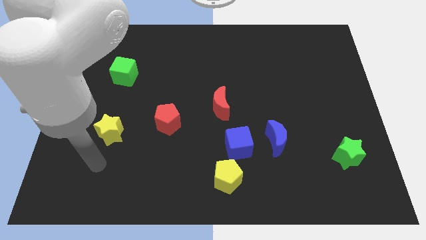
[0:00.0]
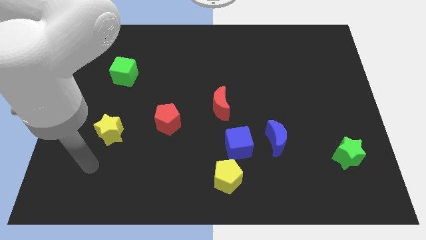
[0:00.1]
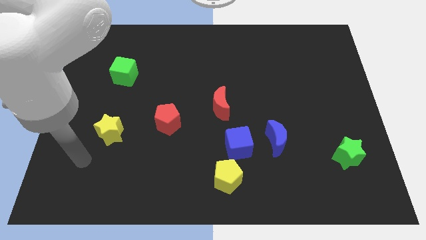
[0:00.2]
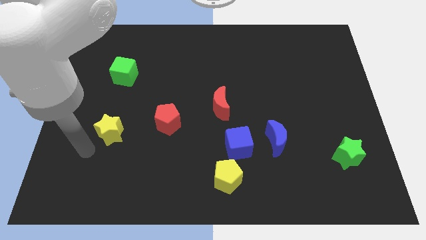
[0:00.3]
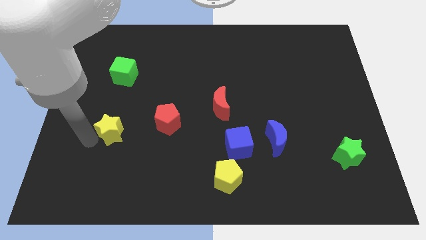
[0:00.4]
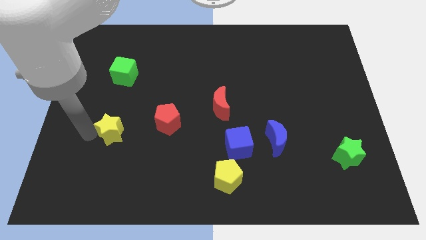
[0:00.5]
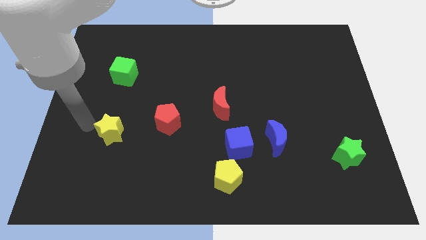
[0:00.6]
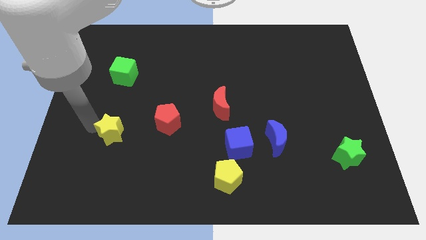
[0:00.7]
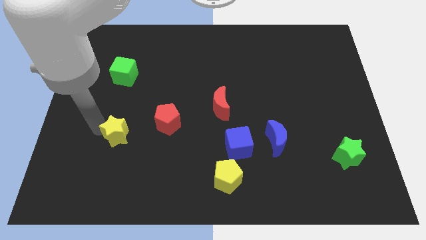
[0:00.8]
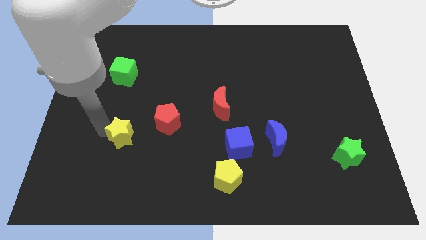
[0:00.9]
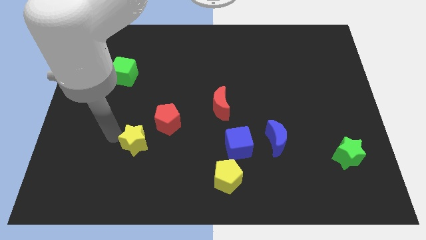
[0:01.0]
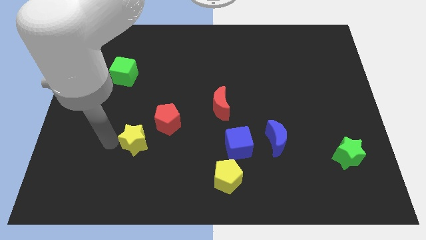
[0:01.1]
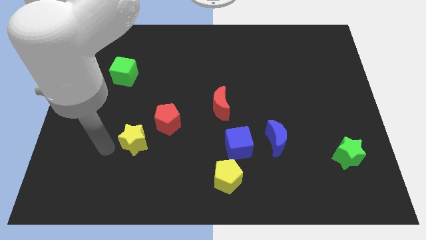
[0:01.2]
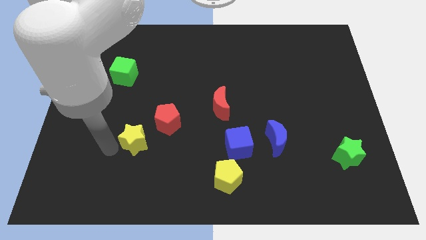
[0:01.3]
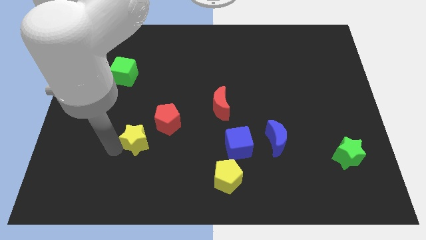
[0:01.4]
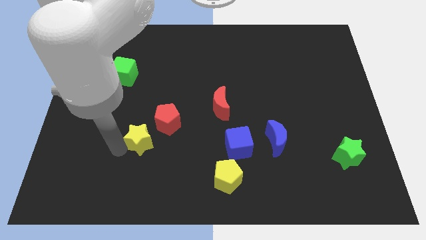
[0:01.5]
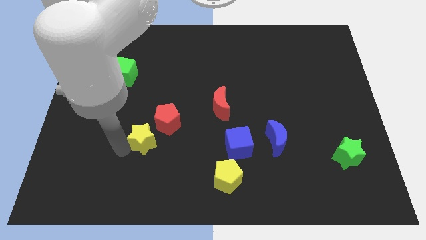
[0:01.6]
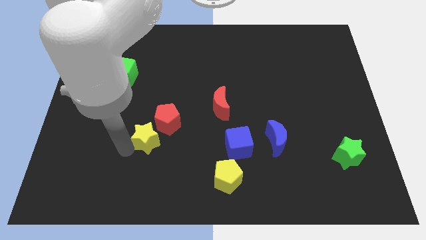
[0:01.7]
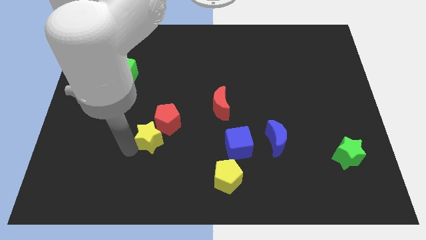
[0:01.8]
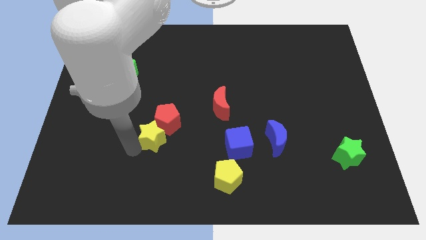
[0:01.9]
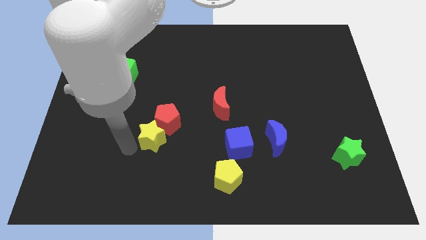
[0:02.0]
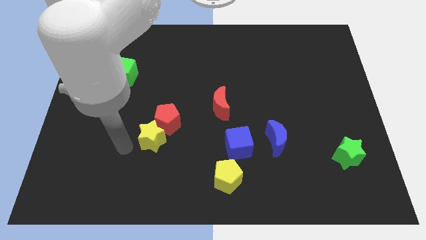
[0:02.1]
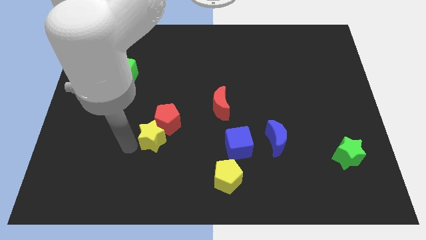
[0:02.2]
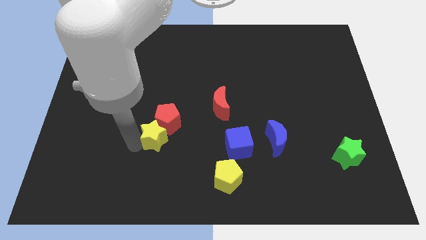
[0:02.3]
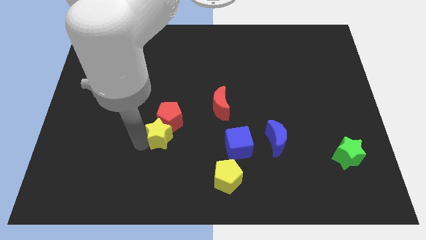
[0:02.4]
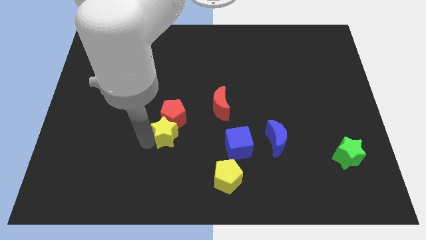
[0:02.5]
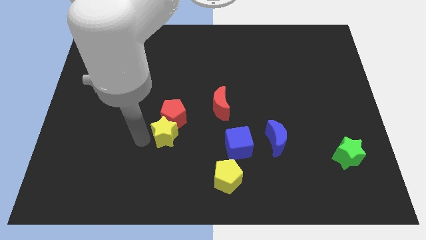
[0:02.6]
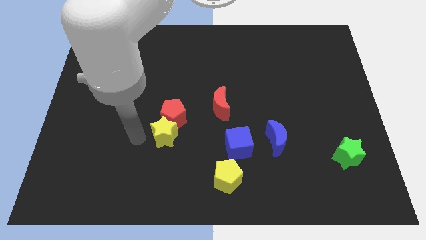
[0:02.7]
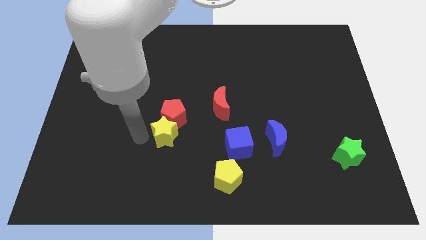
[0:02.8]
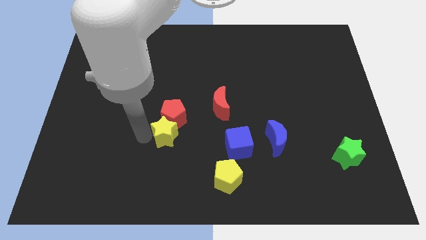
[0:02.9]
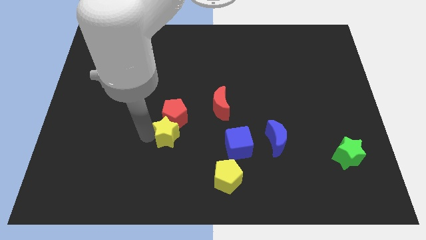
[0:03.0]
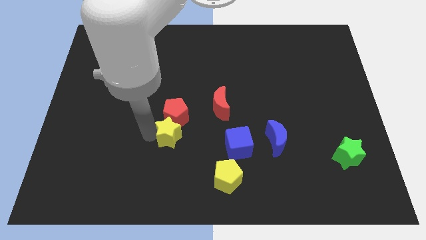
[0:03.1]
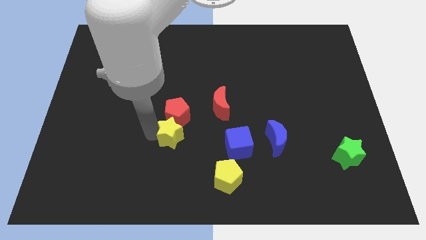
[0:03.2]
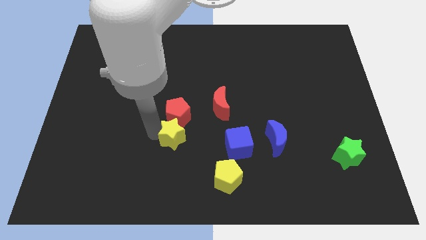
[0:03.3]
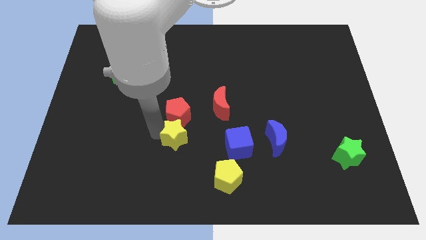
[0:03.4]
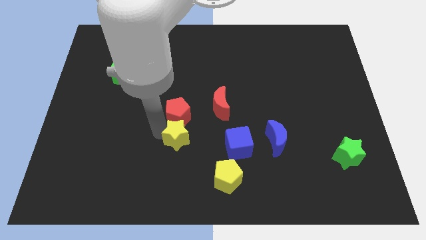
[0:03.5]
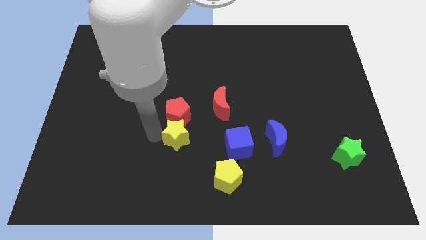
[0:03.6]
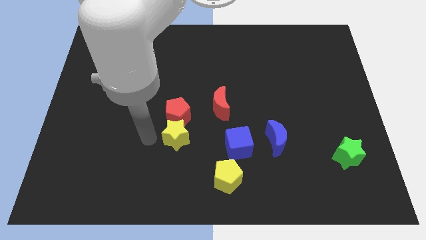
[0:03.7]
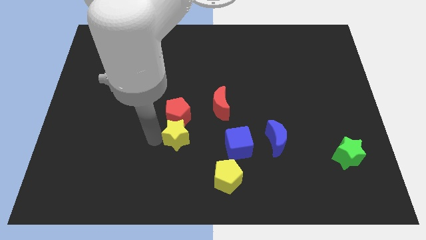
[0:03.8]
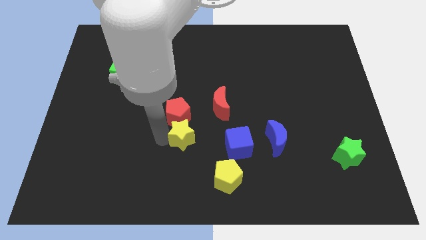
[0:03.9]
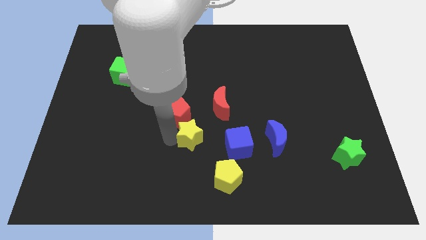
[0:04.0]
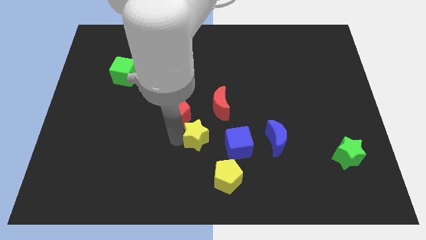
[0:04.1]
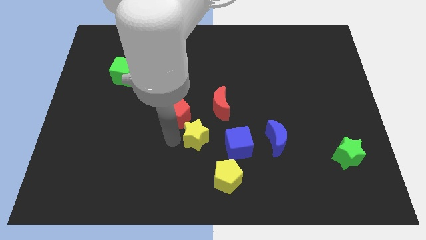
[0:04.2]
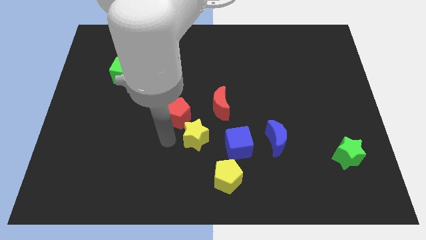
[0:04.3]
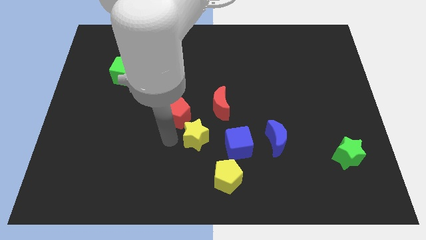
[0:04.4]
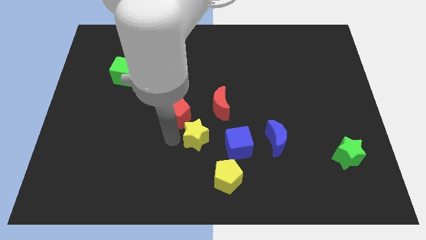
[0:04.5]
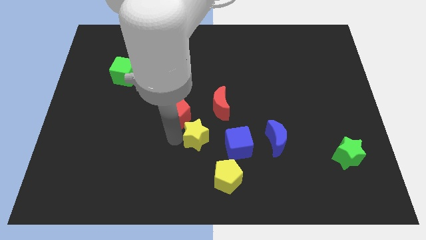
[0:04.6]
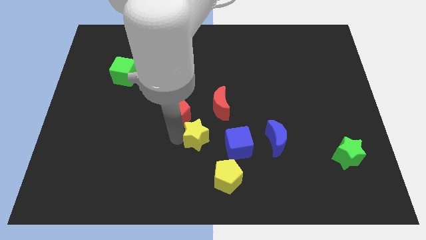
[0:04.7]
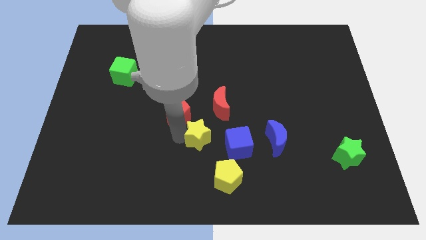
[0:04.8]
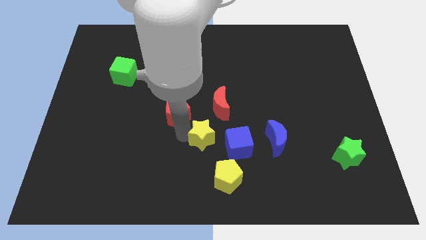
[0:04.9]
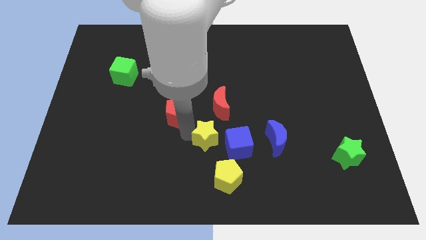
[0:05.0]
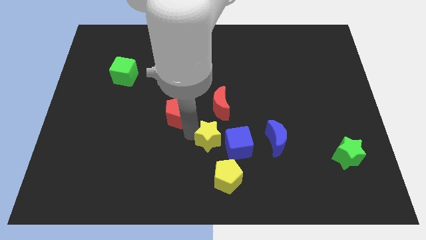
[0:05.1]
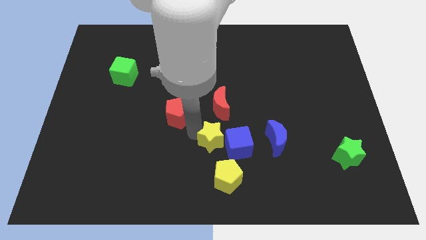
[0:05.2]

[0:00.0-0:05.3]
move the yellow star to the blue cube

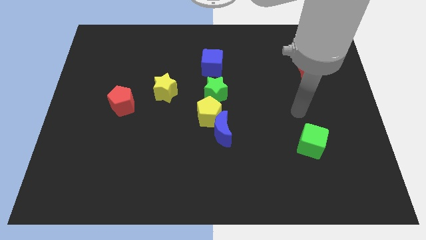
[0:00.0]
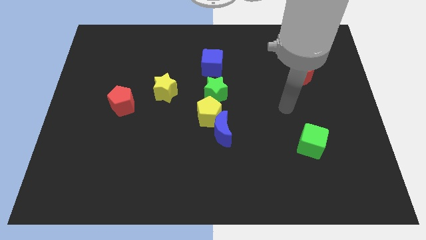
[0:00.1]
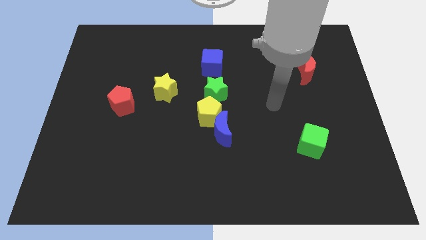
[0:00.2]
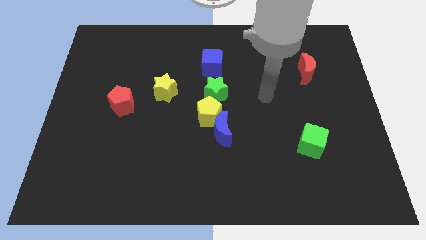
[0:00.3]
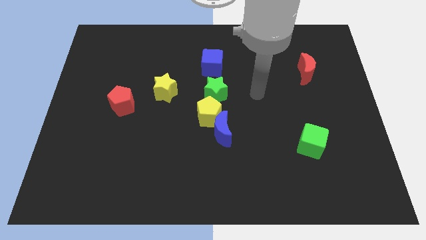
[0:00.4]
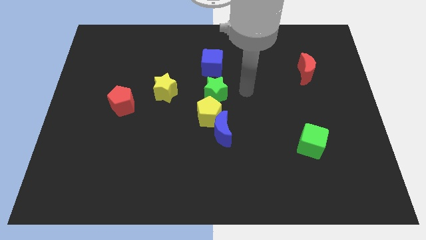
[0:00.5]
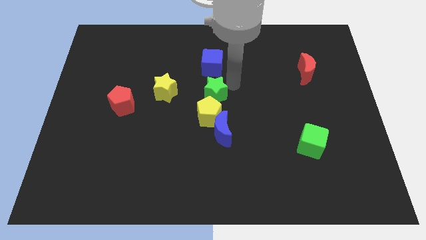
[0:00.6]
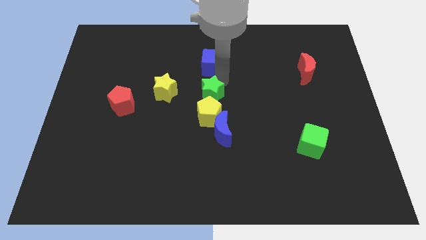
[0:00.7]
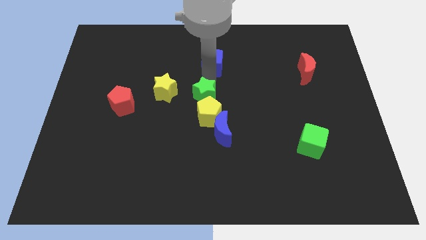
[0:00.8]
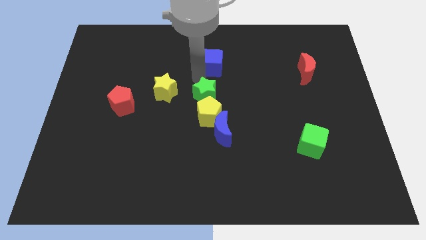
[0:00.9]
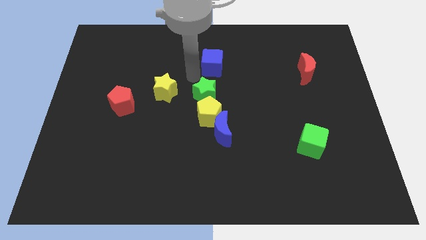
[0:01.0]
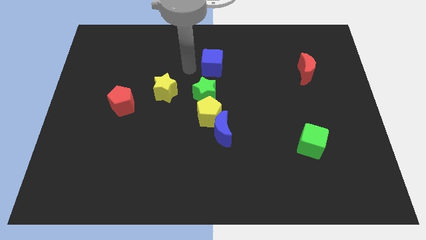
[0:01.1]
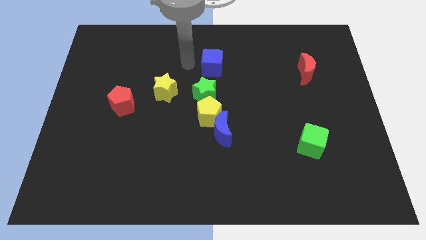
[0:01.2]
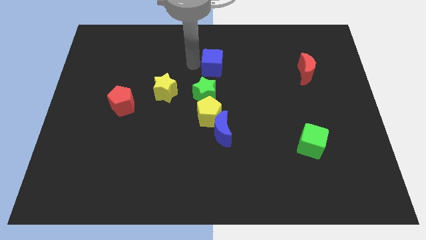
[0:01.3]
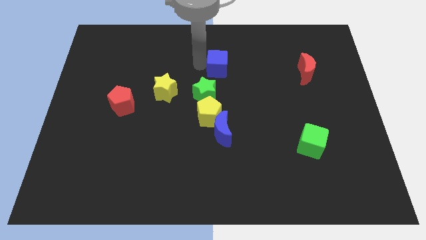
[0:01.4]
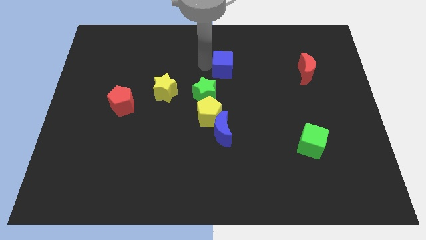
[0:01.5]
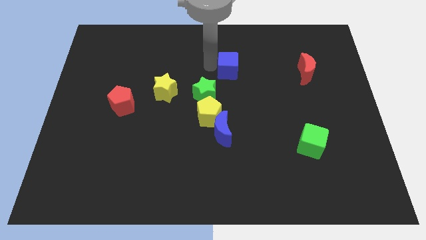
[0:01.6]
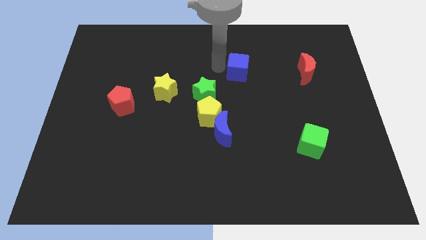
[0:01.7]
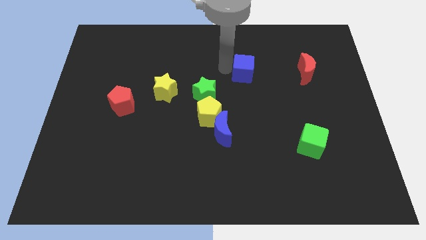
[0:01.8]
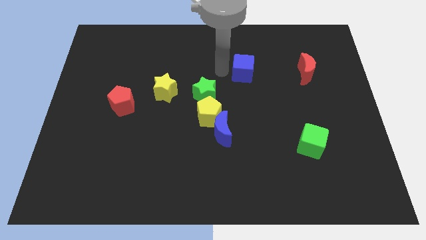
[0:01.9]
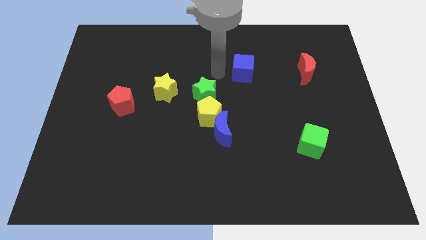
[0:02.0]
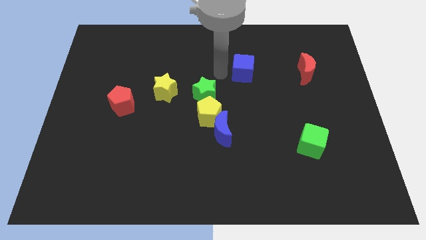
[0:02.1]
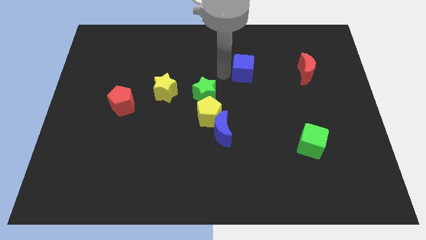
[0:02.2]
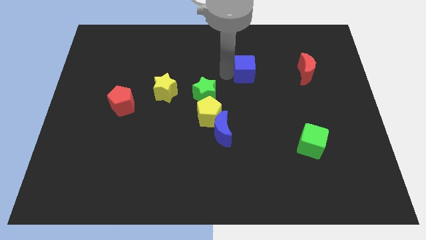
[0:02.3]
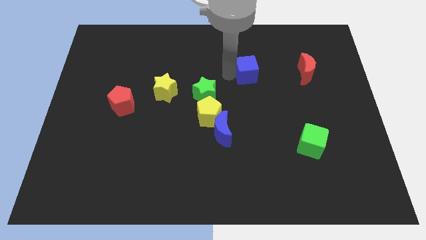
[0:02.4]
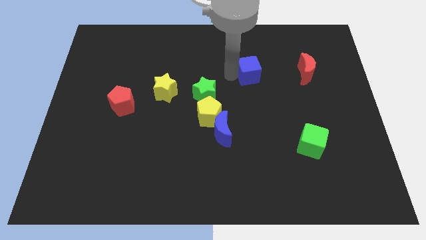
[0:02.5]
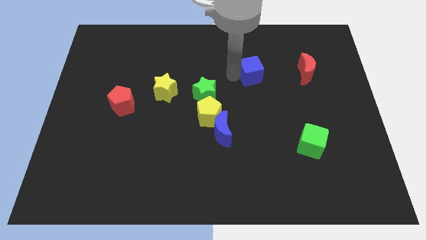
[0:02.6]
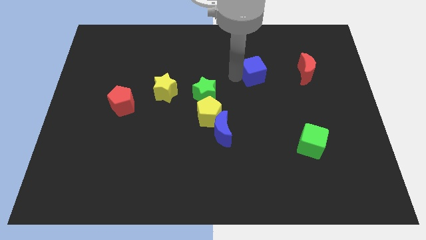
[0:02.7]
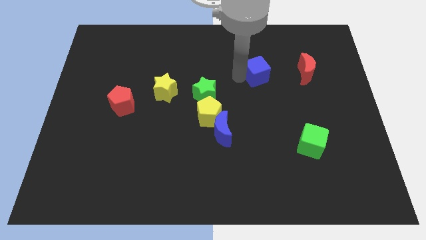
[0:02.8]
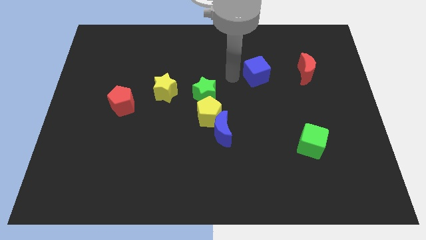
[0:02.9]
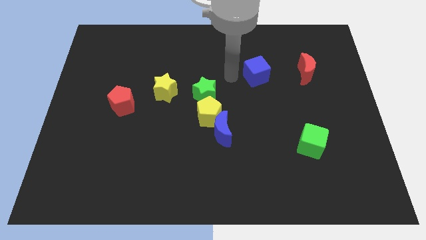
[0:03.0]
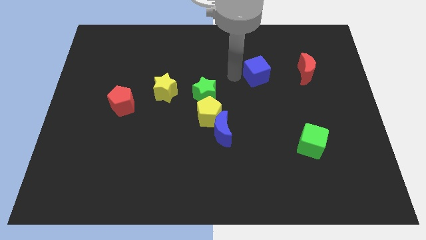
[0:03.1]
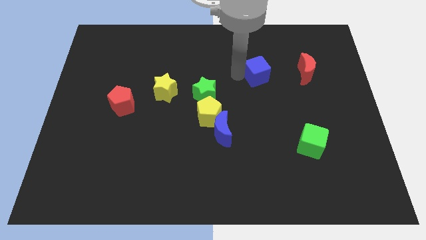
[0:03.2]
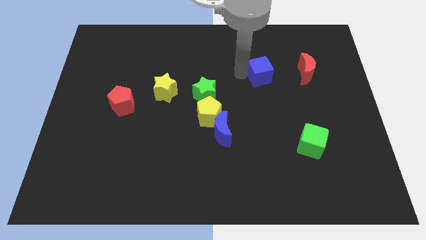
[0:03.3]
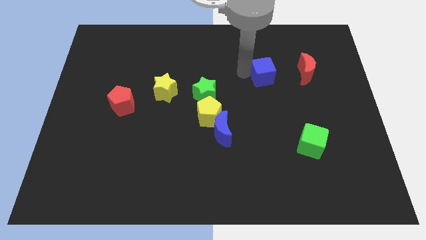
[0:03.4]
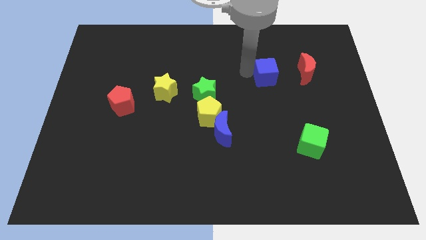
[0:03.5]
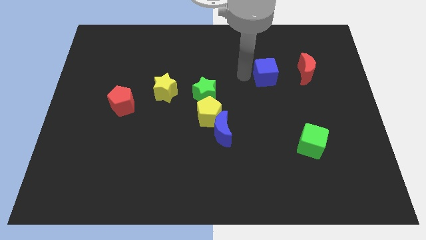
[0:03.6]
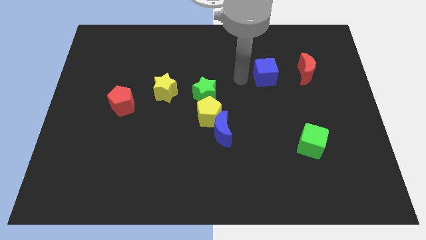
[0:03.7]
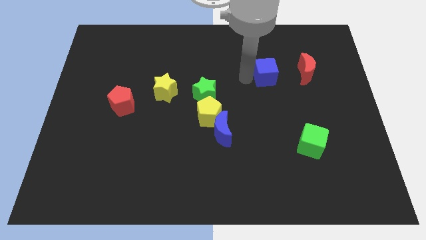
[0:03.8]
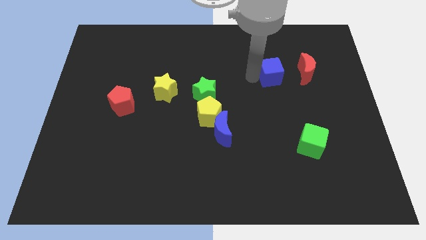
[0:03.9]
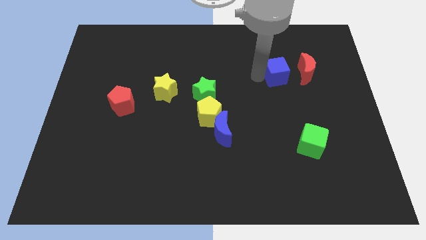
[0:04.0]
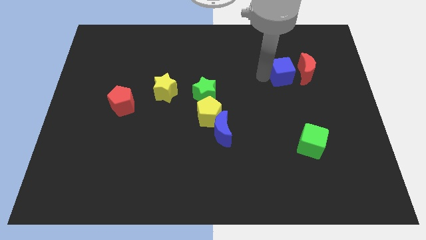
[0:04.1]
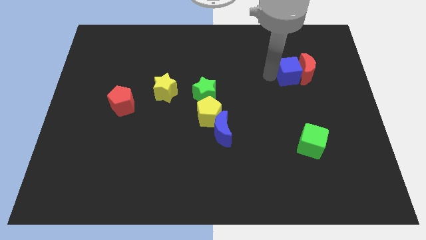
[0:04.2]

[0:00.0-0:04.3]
move the blue cube next to the red moon
